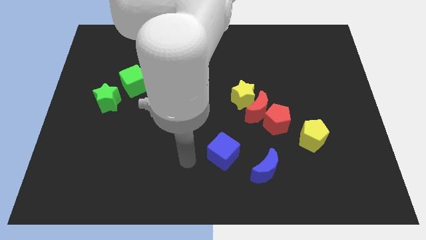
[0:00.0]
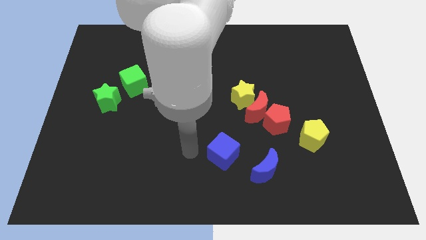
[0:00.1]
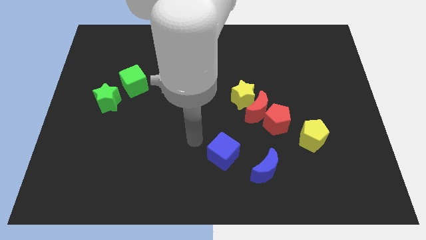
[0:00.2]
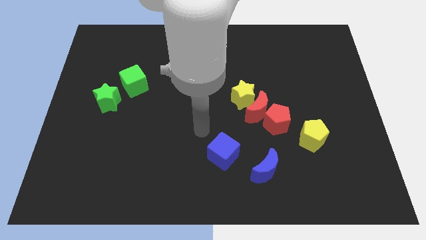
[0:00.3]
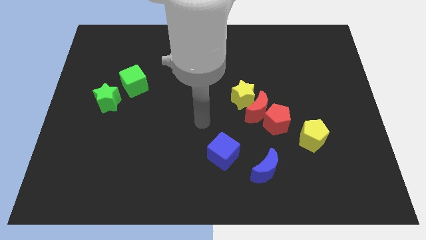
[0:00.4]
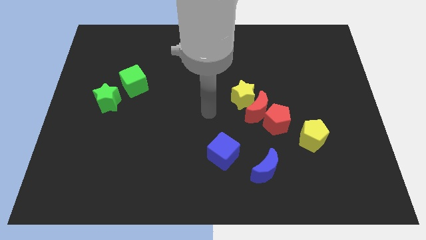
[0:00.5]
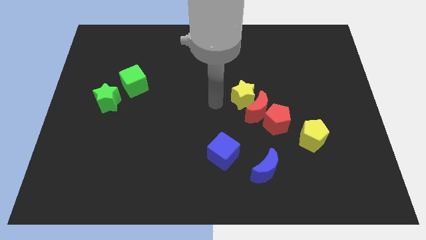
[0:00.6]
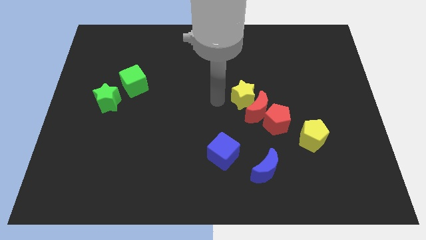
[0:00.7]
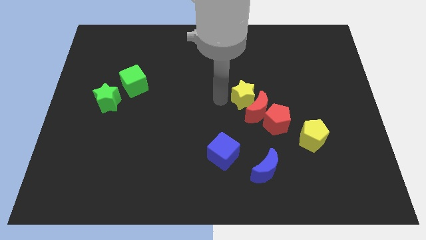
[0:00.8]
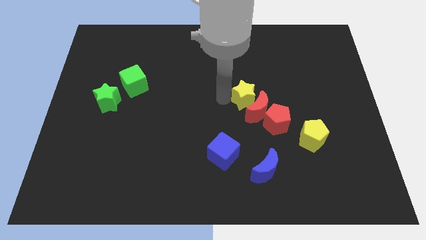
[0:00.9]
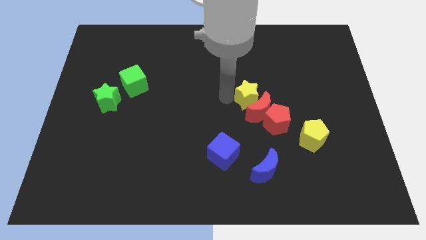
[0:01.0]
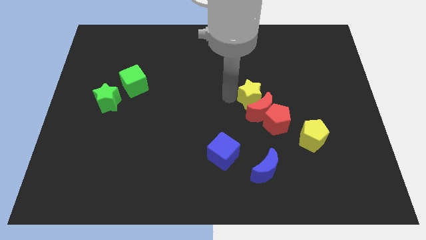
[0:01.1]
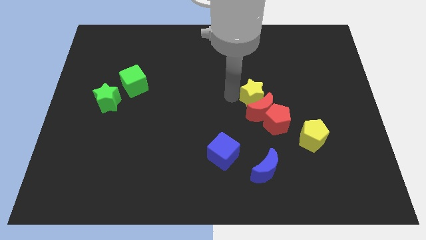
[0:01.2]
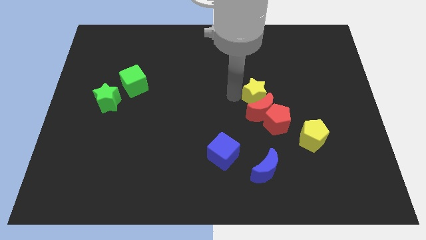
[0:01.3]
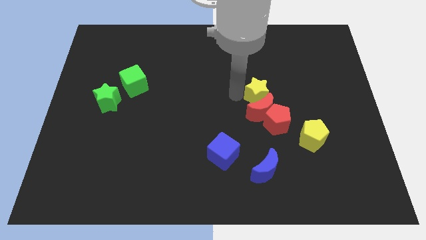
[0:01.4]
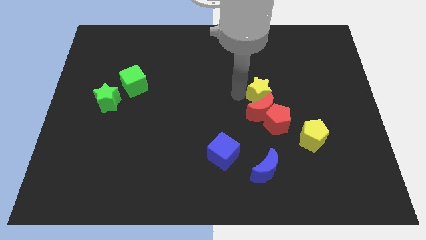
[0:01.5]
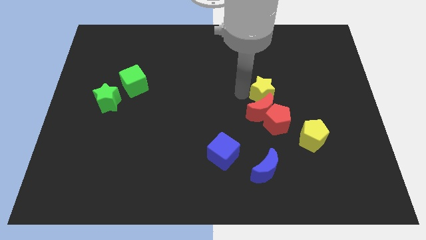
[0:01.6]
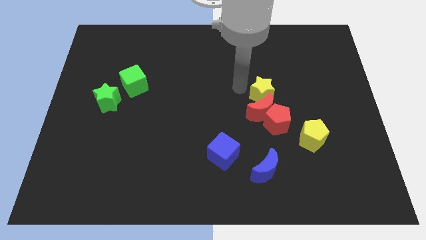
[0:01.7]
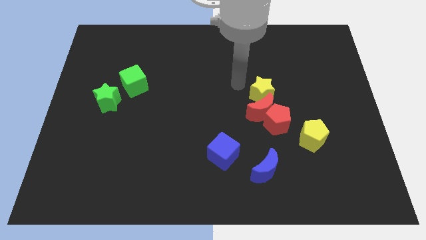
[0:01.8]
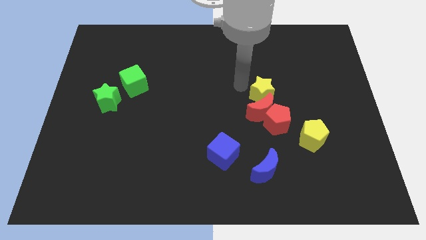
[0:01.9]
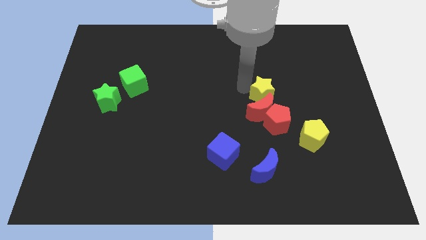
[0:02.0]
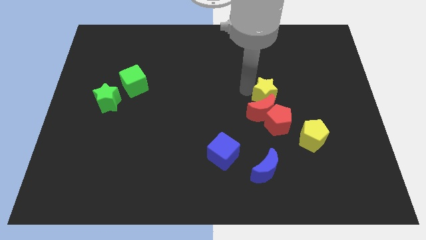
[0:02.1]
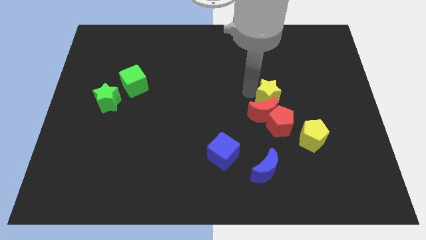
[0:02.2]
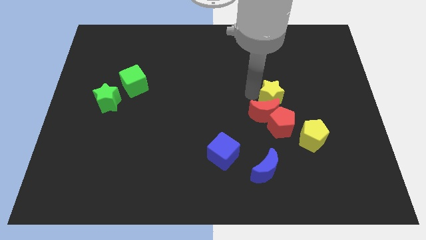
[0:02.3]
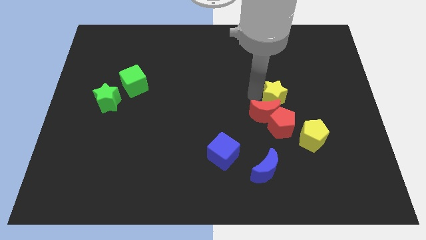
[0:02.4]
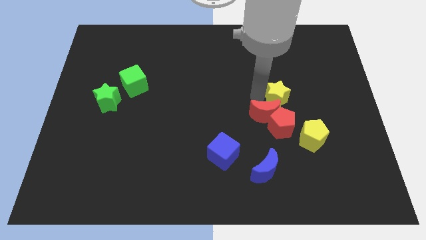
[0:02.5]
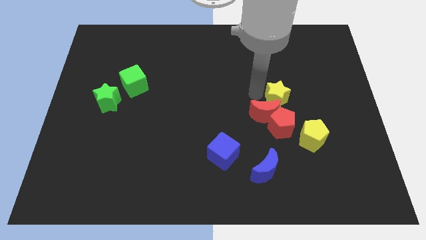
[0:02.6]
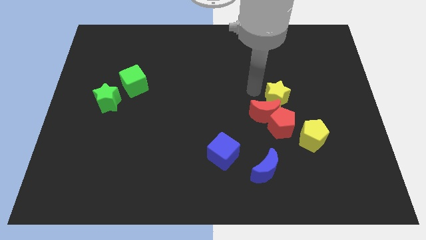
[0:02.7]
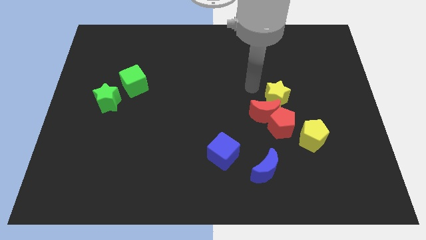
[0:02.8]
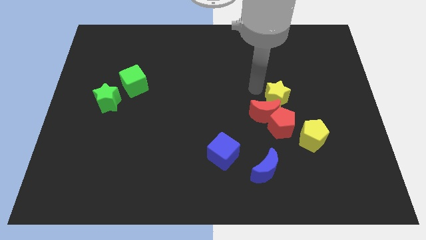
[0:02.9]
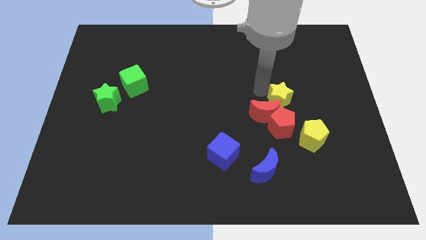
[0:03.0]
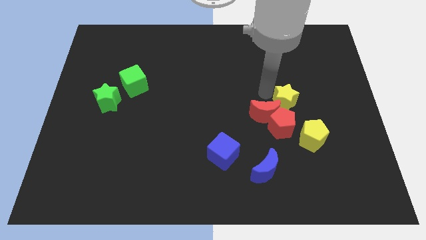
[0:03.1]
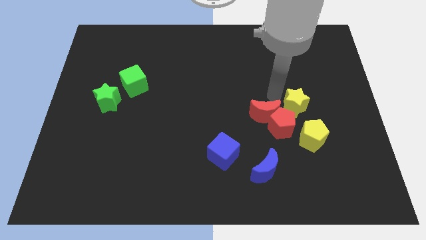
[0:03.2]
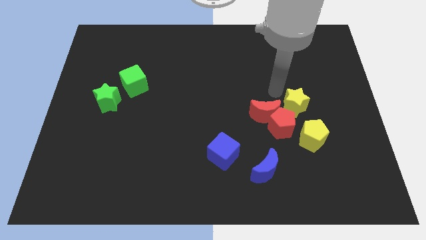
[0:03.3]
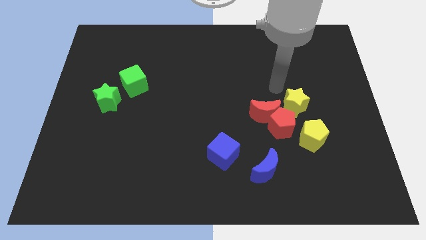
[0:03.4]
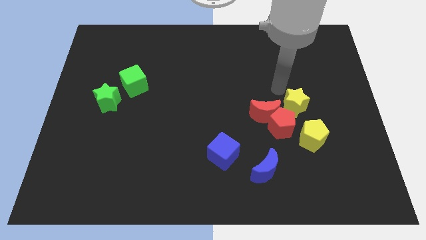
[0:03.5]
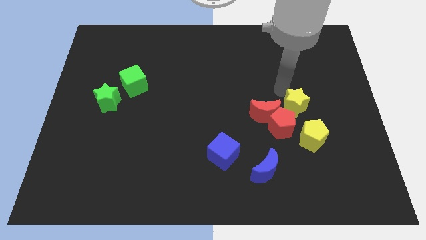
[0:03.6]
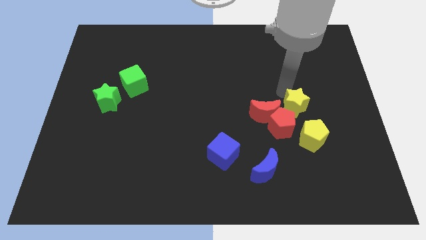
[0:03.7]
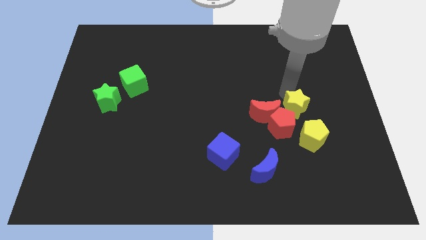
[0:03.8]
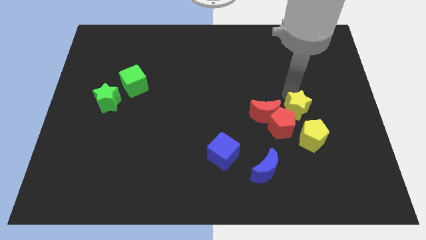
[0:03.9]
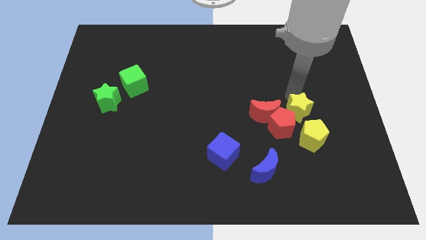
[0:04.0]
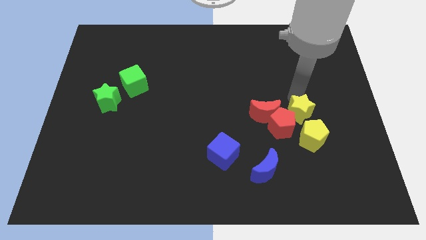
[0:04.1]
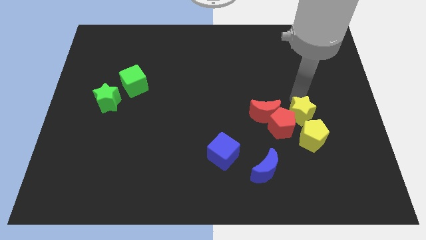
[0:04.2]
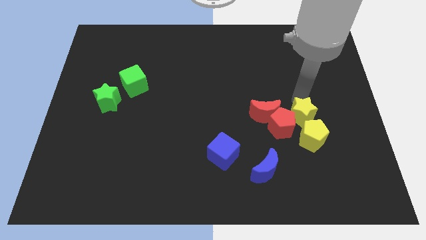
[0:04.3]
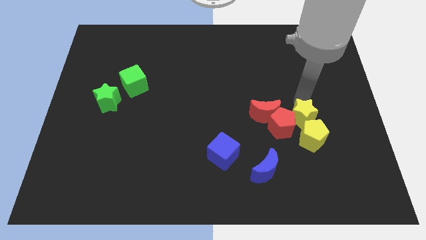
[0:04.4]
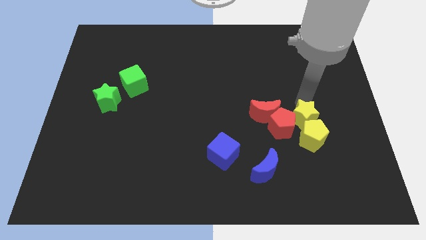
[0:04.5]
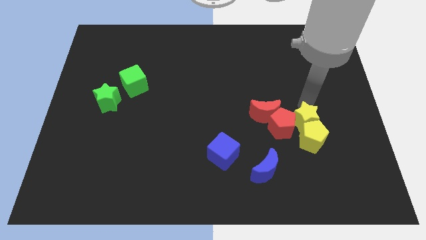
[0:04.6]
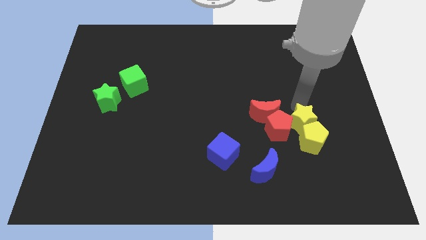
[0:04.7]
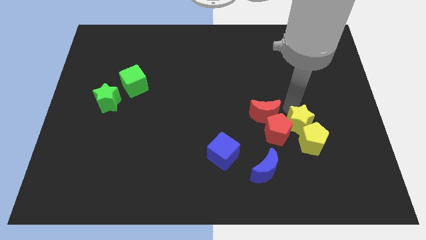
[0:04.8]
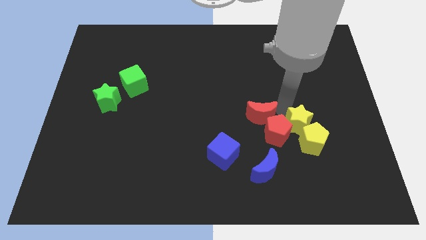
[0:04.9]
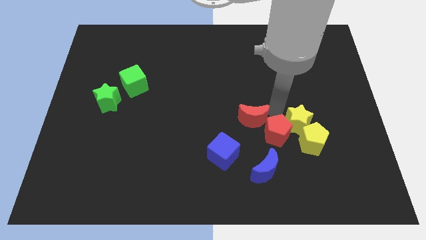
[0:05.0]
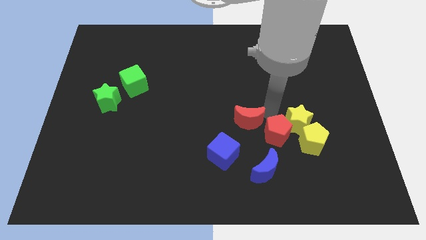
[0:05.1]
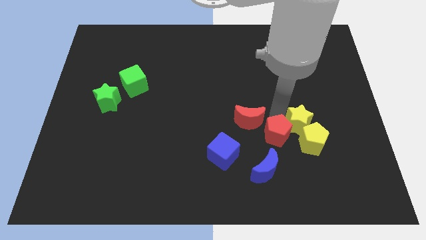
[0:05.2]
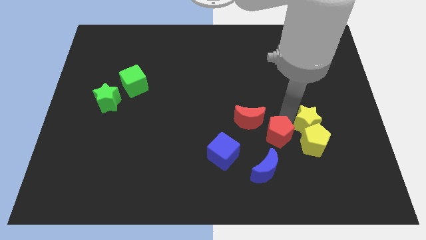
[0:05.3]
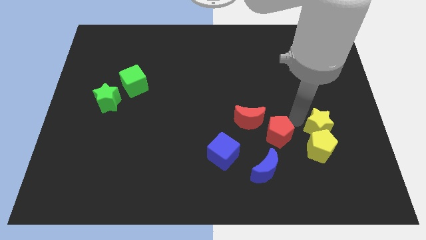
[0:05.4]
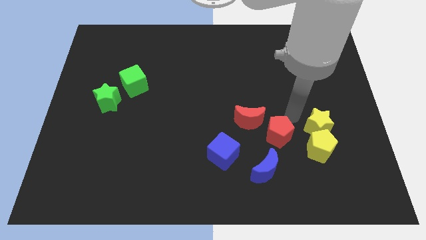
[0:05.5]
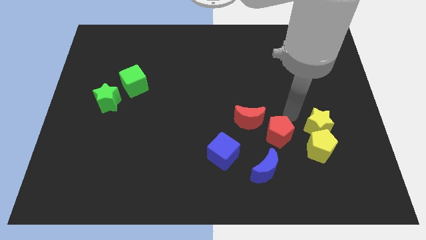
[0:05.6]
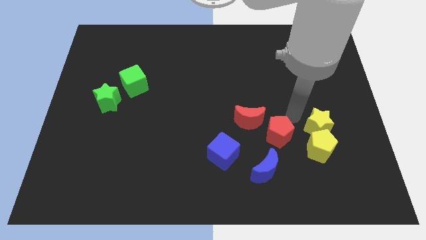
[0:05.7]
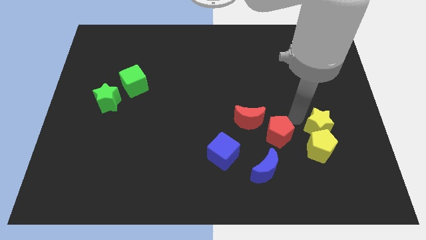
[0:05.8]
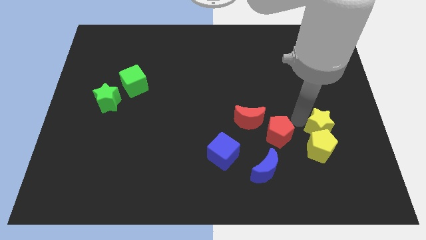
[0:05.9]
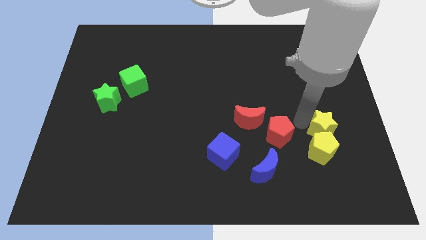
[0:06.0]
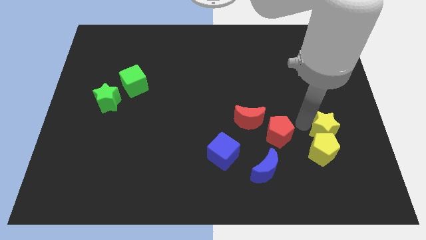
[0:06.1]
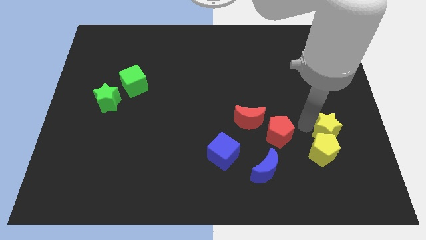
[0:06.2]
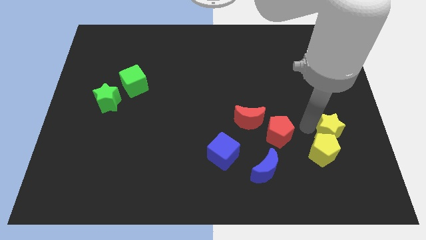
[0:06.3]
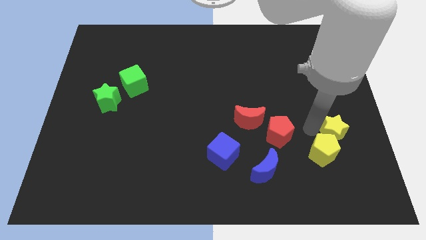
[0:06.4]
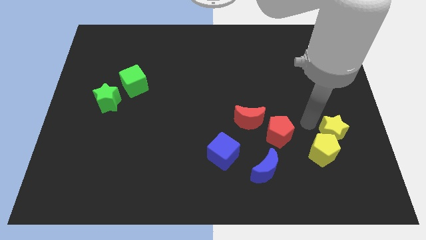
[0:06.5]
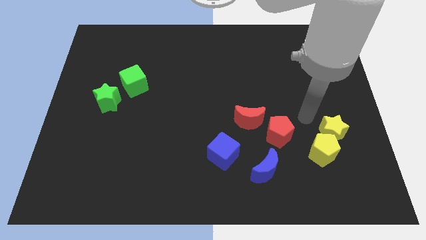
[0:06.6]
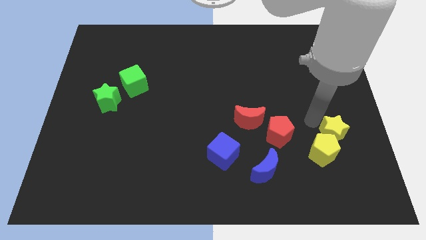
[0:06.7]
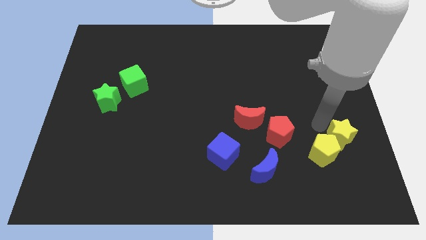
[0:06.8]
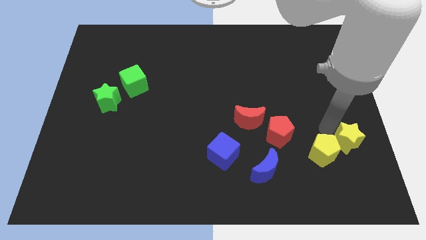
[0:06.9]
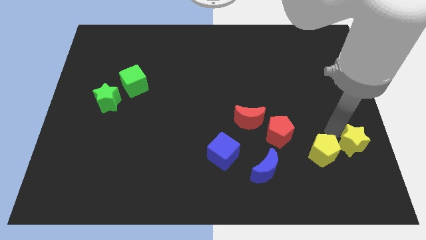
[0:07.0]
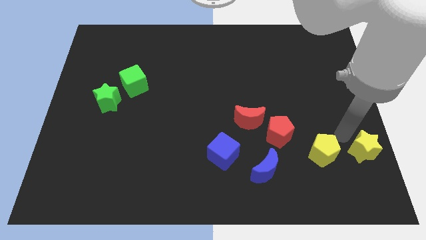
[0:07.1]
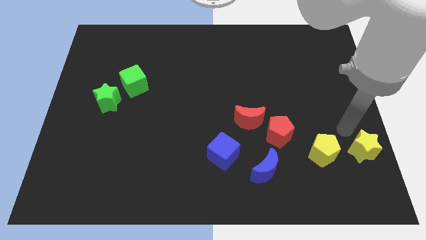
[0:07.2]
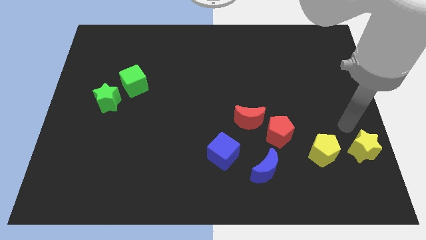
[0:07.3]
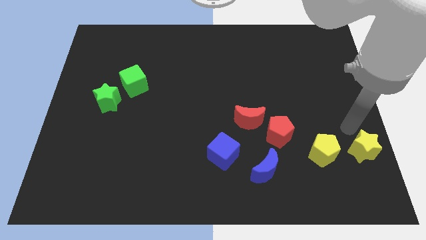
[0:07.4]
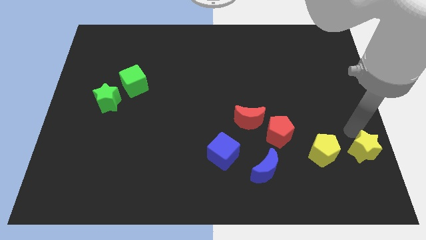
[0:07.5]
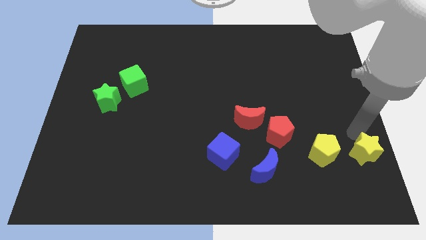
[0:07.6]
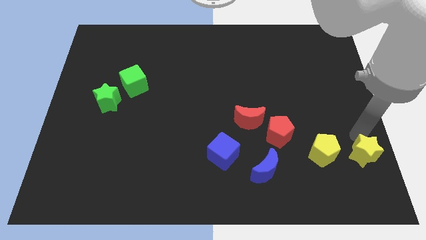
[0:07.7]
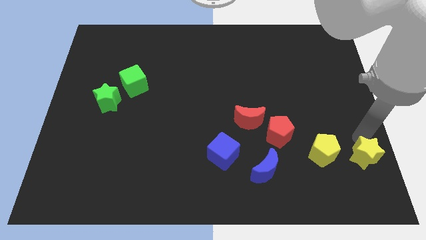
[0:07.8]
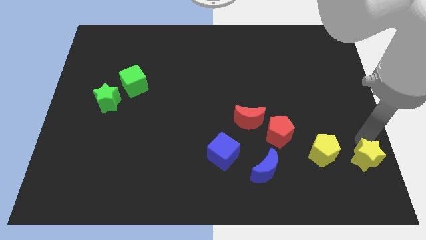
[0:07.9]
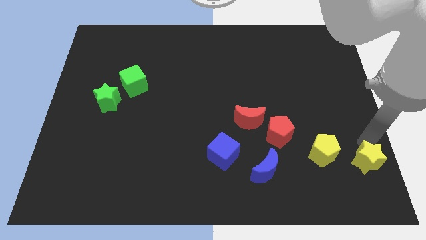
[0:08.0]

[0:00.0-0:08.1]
slide the yellow star to the bottom right corner
